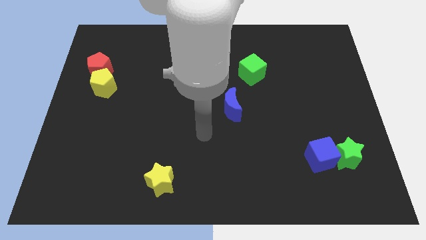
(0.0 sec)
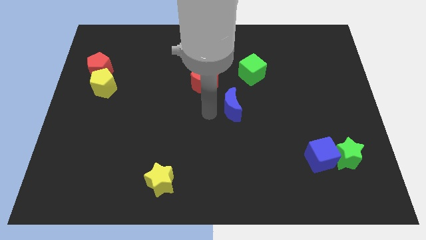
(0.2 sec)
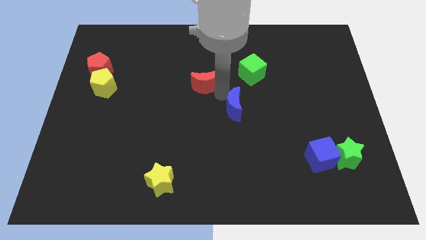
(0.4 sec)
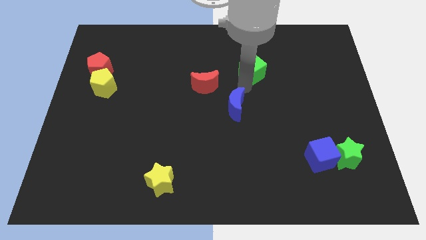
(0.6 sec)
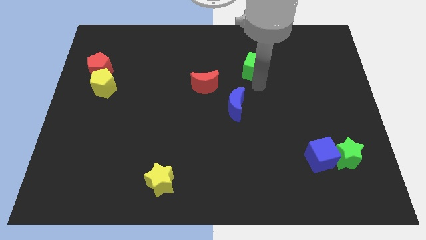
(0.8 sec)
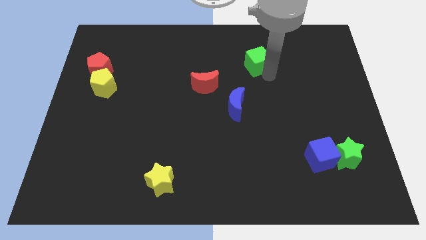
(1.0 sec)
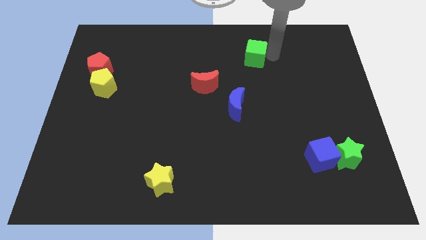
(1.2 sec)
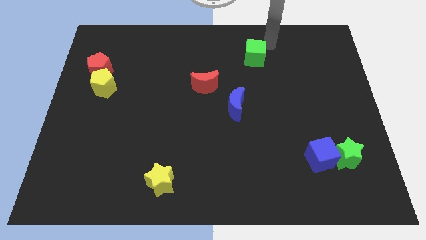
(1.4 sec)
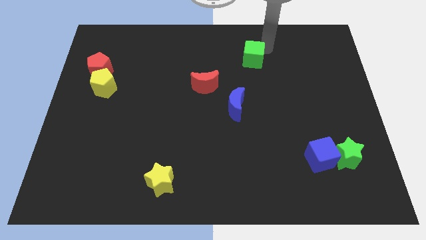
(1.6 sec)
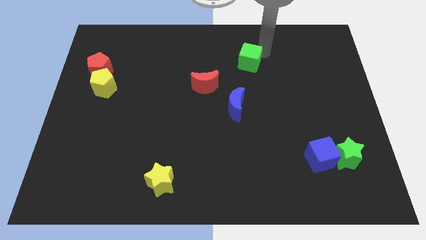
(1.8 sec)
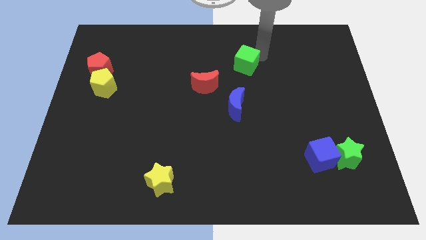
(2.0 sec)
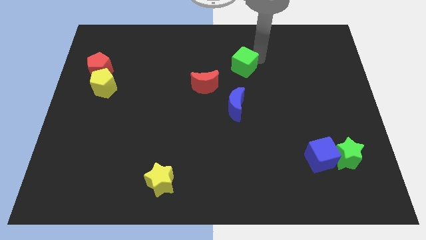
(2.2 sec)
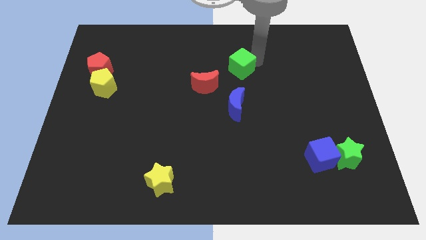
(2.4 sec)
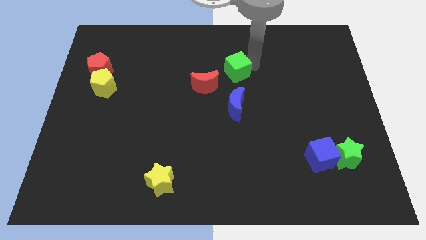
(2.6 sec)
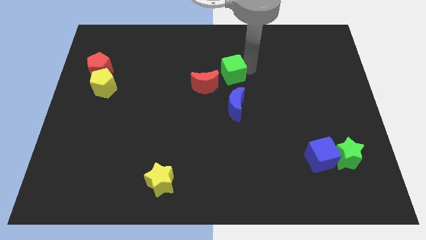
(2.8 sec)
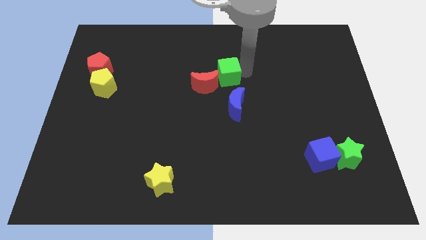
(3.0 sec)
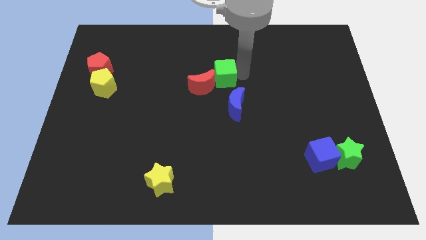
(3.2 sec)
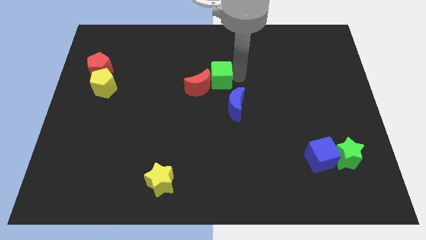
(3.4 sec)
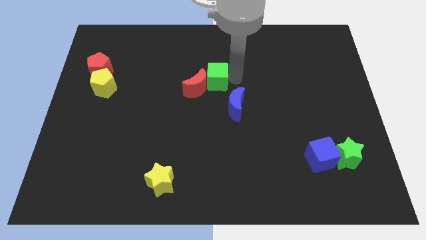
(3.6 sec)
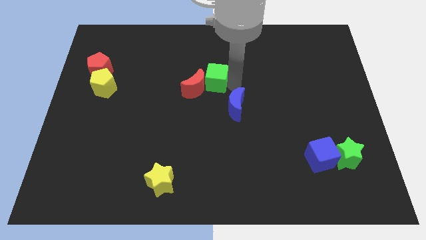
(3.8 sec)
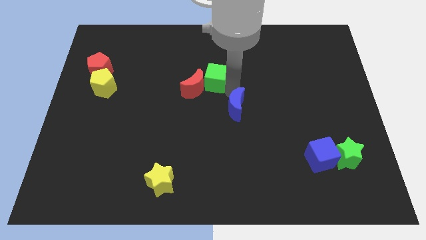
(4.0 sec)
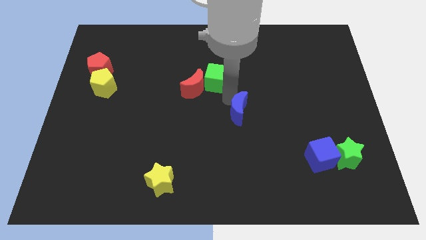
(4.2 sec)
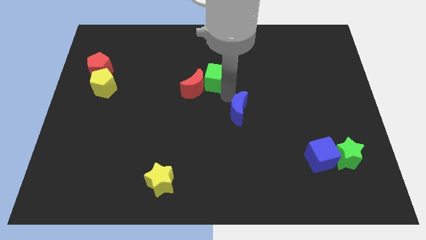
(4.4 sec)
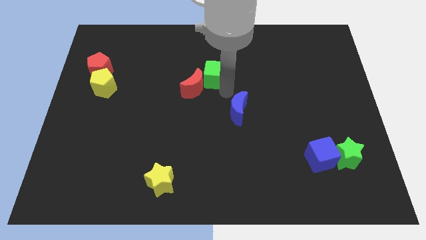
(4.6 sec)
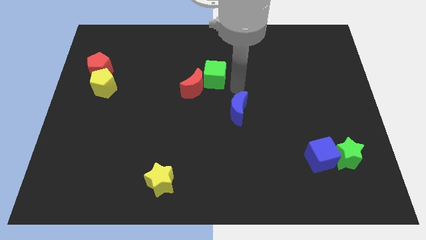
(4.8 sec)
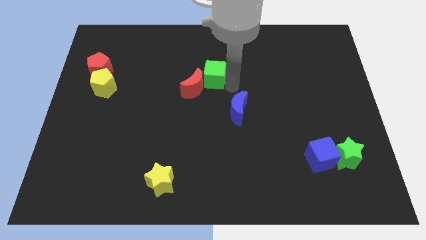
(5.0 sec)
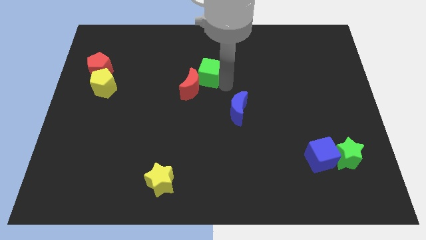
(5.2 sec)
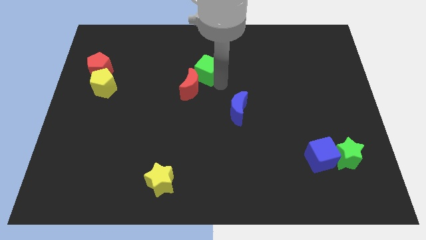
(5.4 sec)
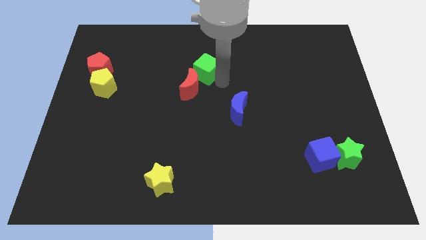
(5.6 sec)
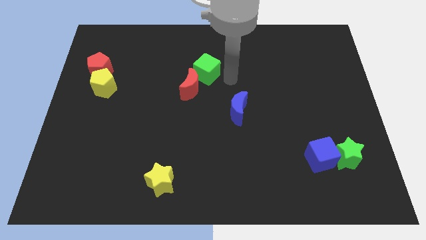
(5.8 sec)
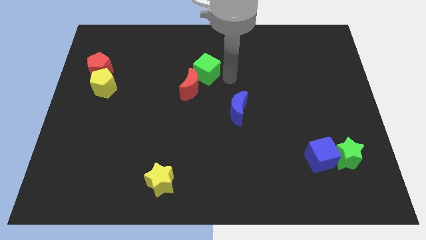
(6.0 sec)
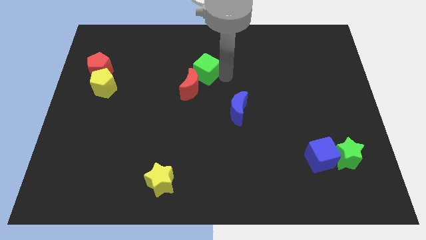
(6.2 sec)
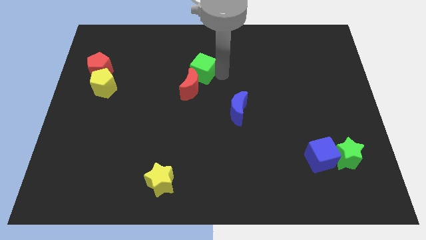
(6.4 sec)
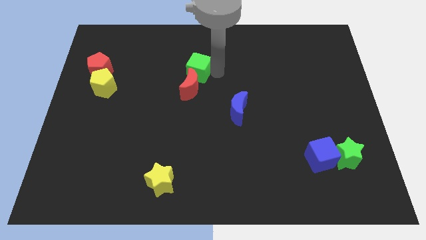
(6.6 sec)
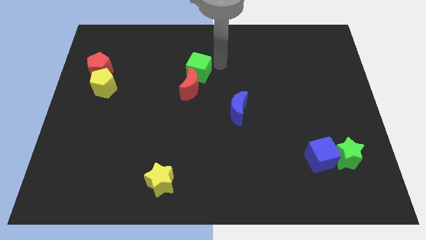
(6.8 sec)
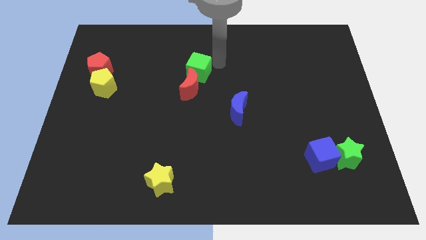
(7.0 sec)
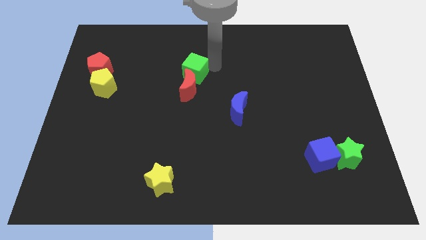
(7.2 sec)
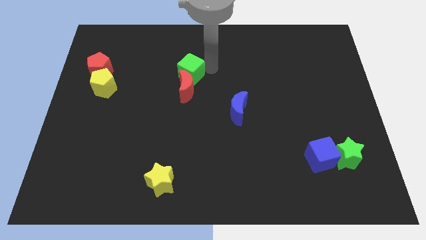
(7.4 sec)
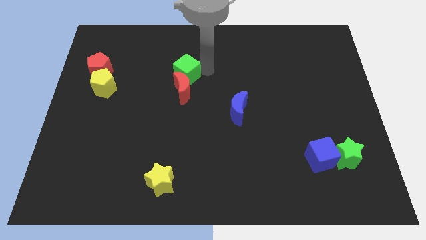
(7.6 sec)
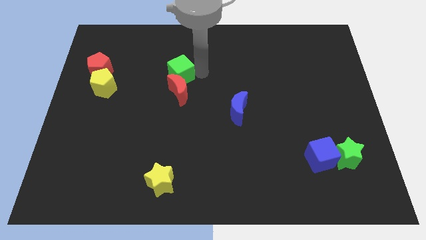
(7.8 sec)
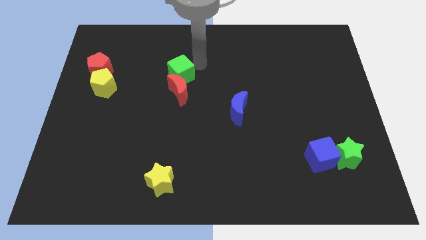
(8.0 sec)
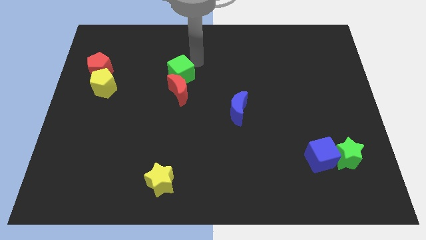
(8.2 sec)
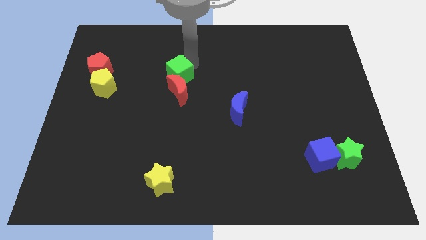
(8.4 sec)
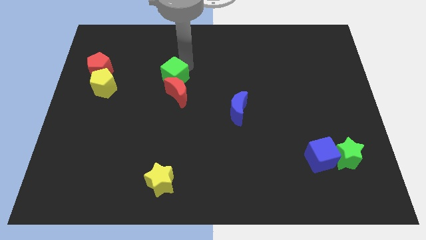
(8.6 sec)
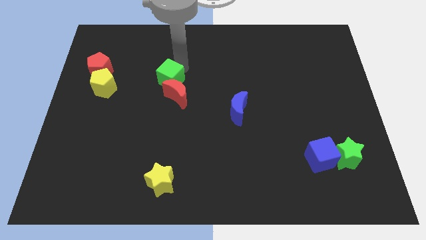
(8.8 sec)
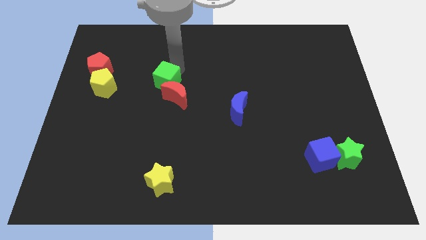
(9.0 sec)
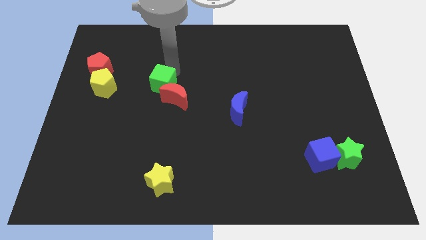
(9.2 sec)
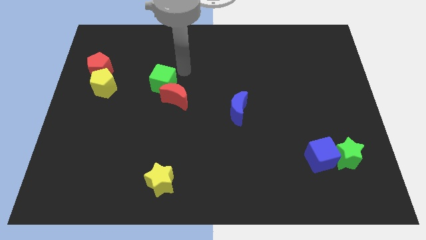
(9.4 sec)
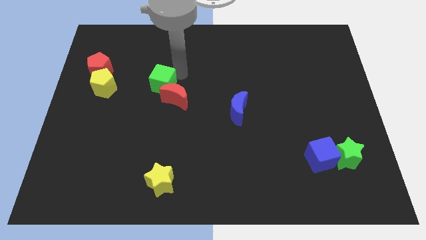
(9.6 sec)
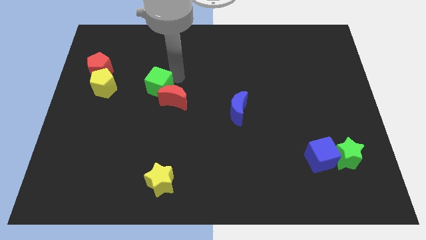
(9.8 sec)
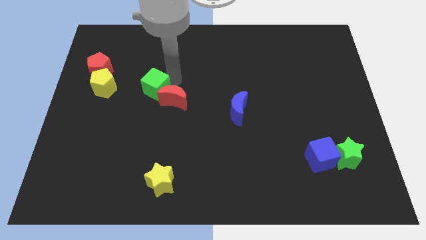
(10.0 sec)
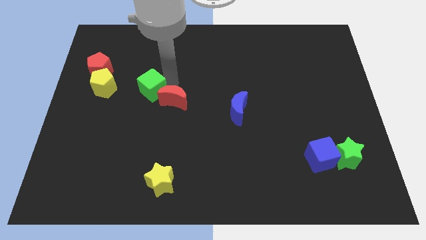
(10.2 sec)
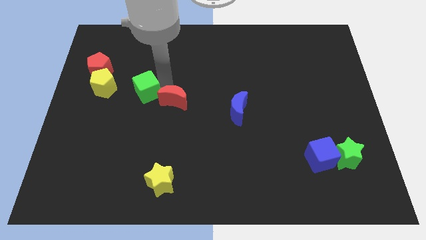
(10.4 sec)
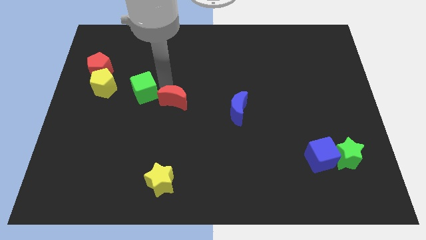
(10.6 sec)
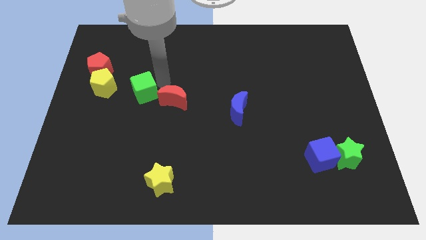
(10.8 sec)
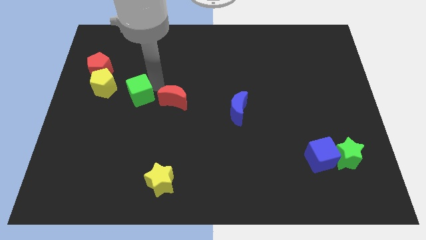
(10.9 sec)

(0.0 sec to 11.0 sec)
put the green cube to the bottom right of the yellow pentagon

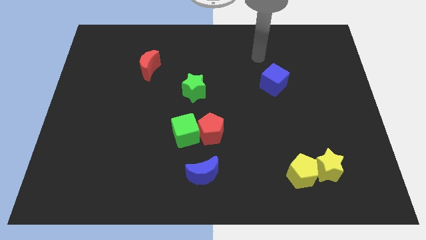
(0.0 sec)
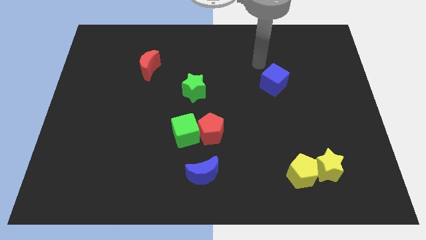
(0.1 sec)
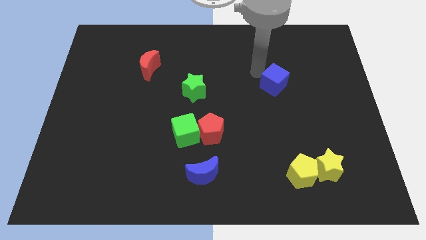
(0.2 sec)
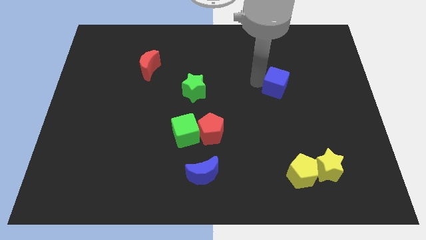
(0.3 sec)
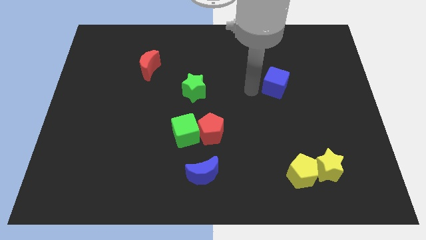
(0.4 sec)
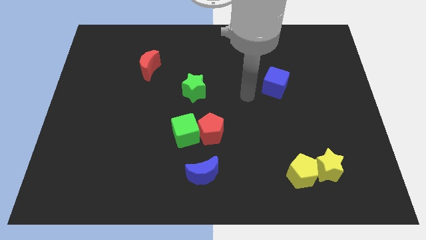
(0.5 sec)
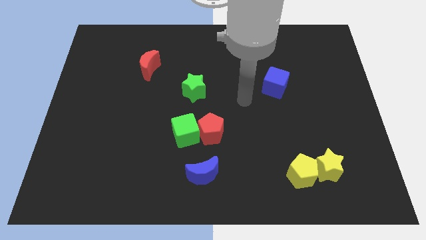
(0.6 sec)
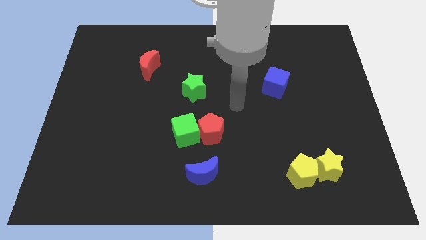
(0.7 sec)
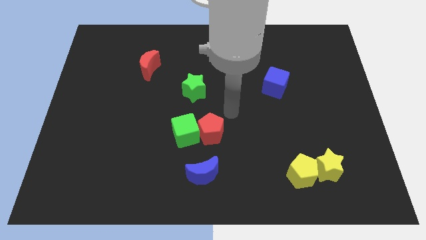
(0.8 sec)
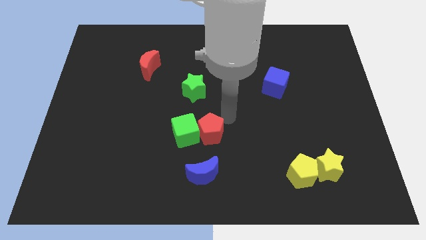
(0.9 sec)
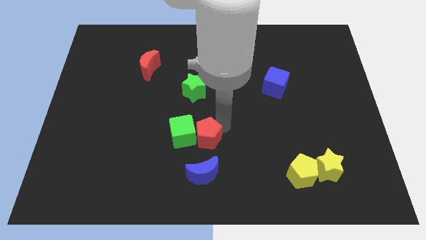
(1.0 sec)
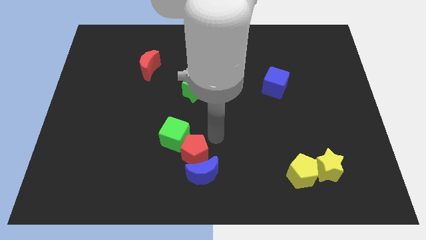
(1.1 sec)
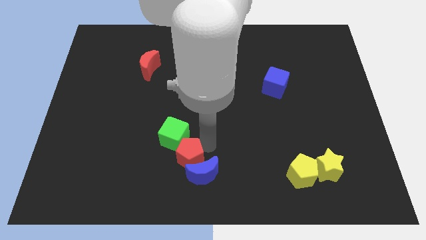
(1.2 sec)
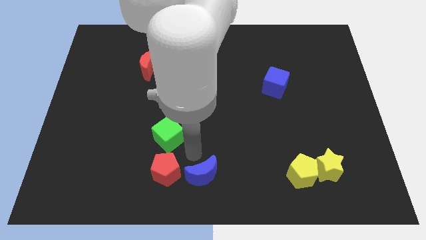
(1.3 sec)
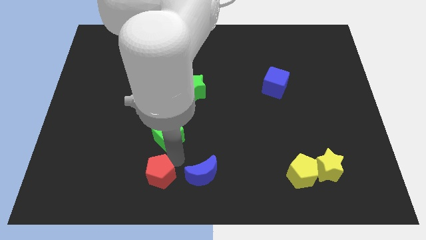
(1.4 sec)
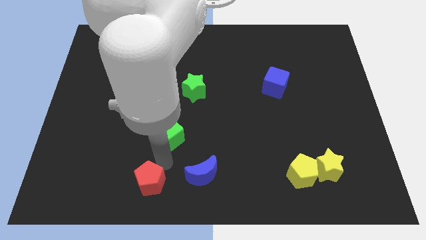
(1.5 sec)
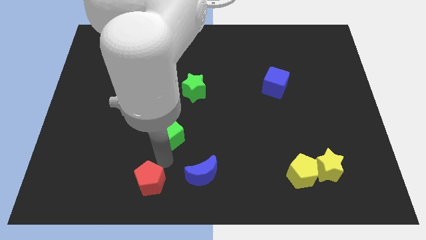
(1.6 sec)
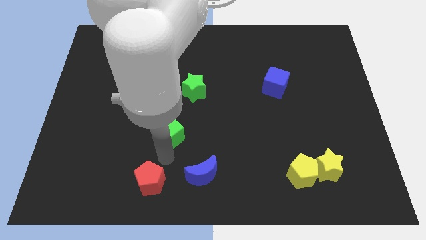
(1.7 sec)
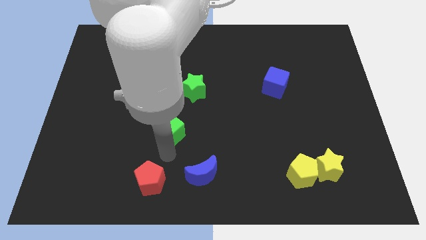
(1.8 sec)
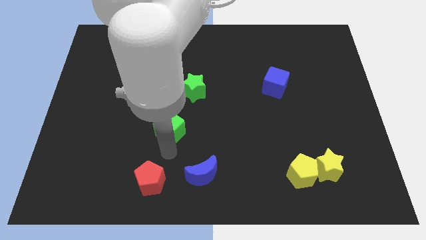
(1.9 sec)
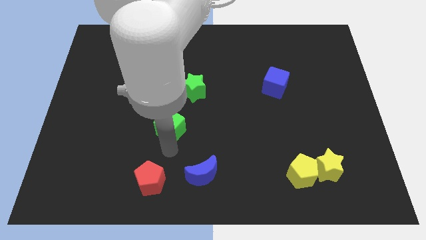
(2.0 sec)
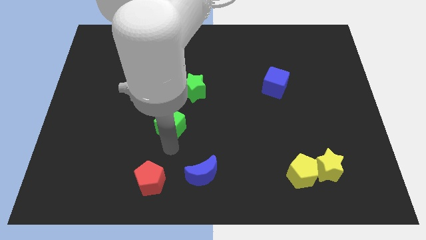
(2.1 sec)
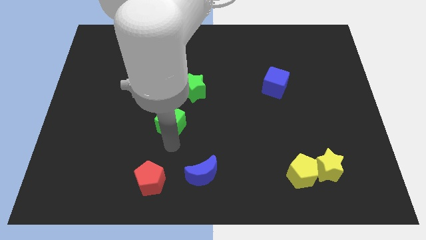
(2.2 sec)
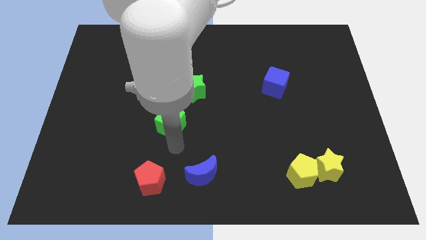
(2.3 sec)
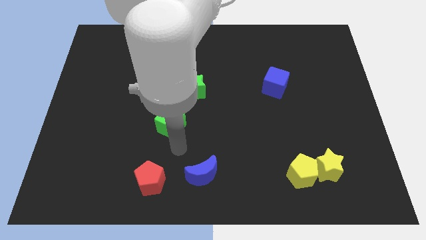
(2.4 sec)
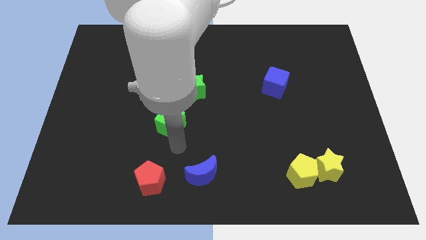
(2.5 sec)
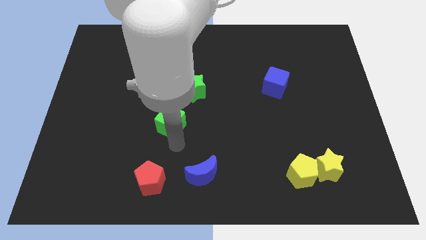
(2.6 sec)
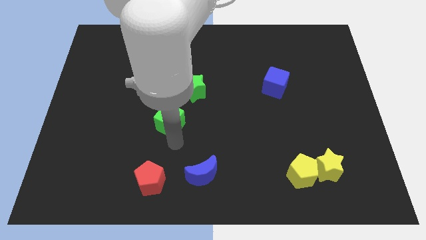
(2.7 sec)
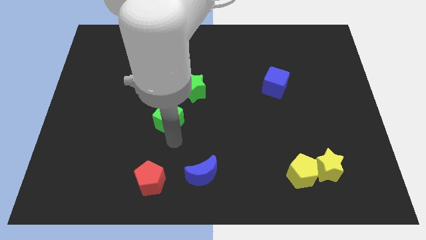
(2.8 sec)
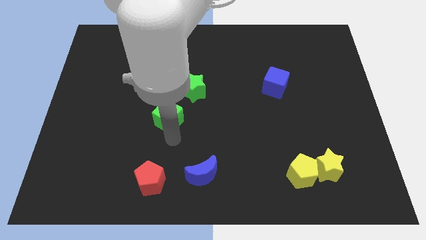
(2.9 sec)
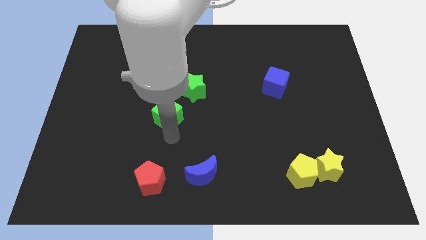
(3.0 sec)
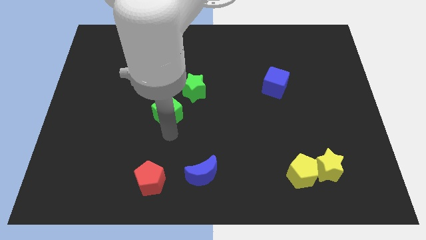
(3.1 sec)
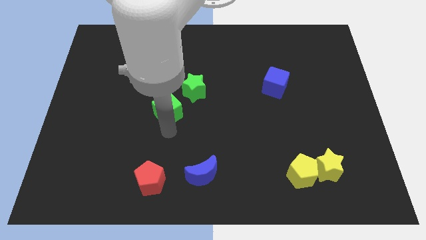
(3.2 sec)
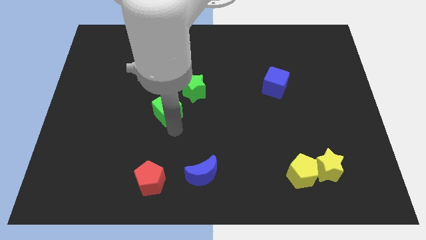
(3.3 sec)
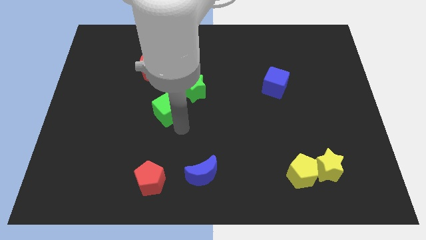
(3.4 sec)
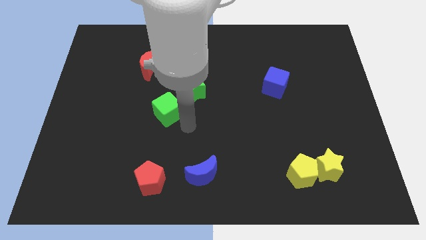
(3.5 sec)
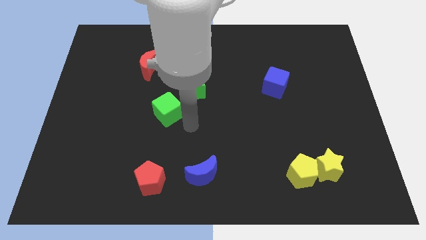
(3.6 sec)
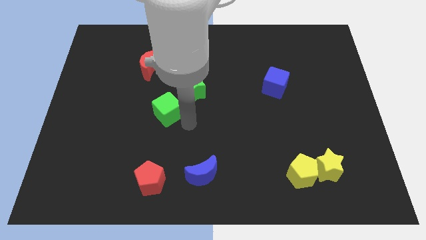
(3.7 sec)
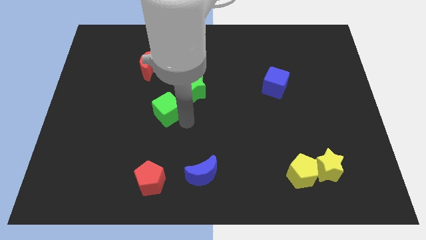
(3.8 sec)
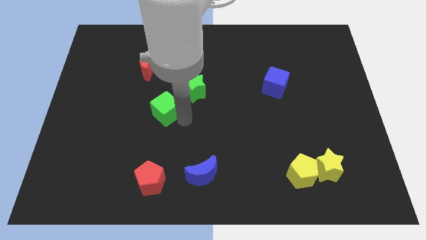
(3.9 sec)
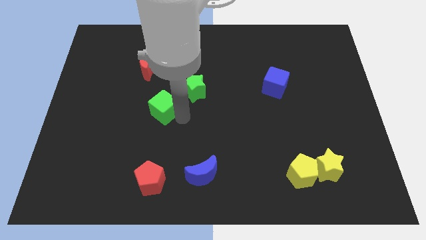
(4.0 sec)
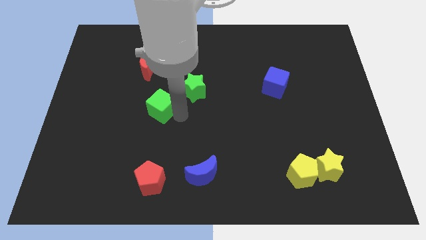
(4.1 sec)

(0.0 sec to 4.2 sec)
slide the green cube below the red moon
